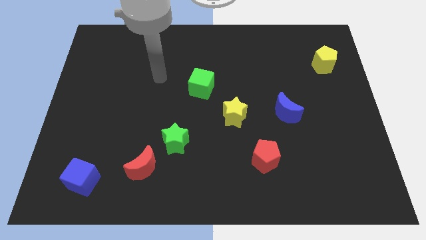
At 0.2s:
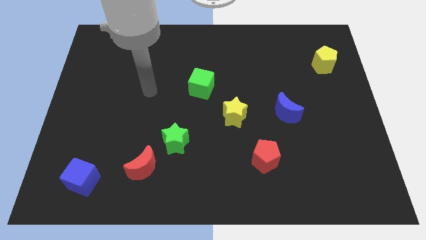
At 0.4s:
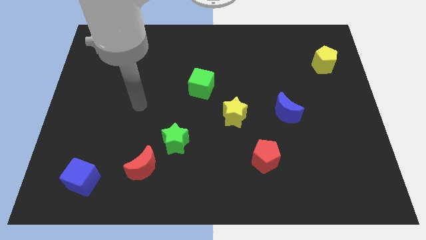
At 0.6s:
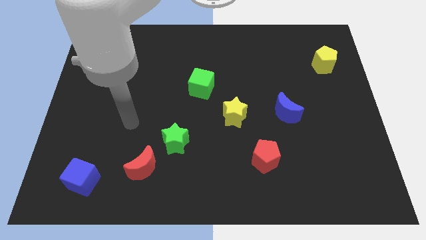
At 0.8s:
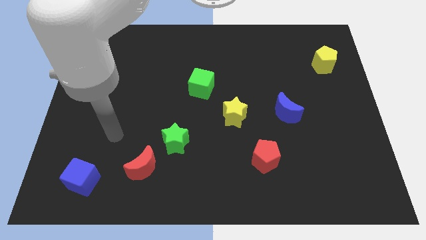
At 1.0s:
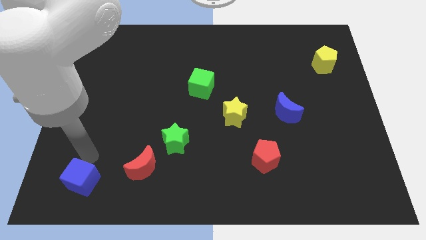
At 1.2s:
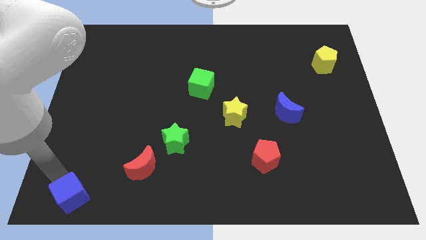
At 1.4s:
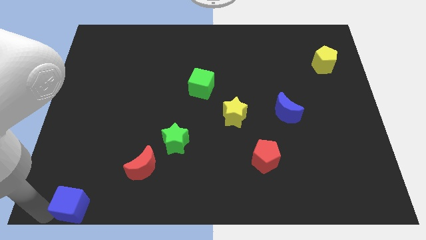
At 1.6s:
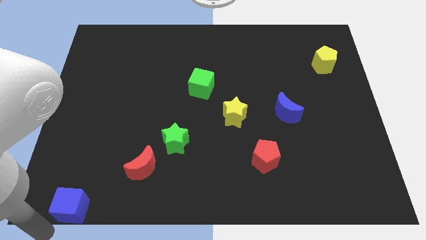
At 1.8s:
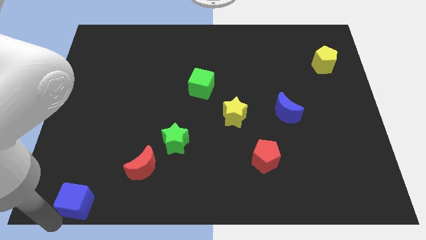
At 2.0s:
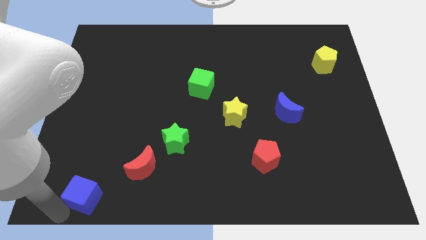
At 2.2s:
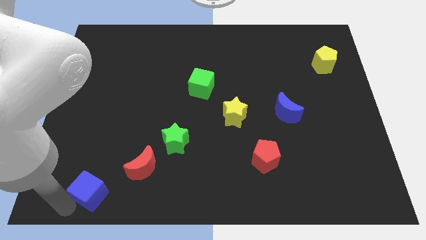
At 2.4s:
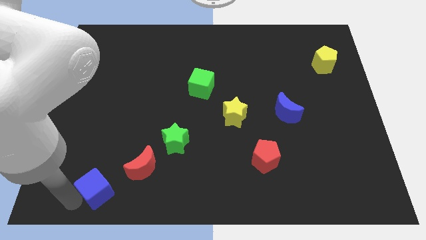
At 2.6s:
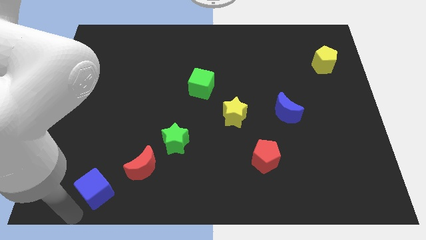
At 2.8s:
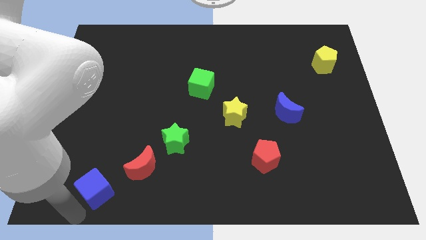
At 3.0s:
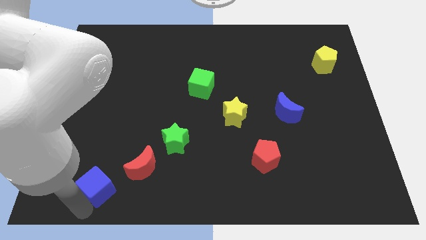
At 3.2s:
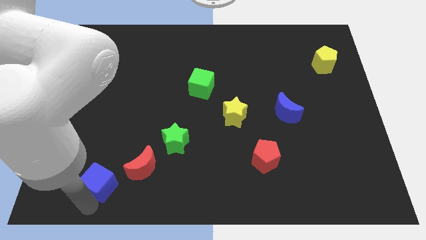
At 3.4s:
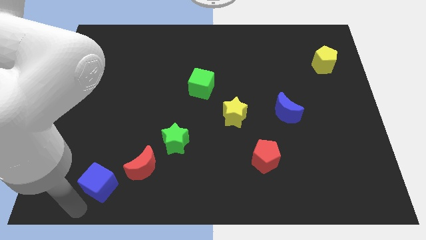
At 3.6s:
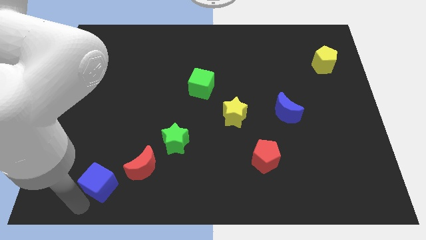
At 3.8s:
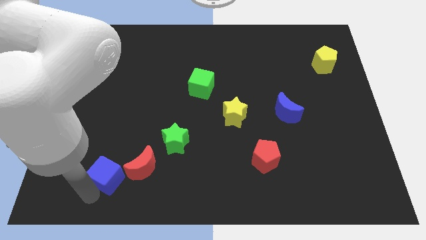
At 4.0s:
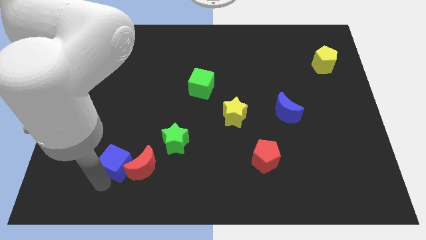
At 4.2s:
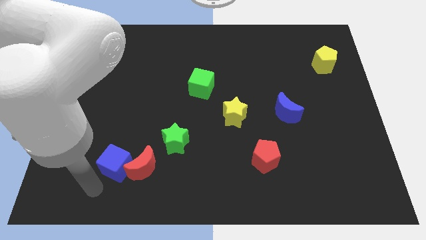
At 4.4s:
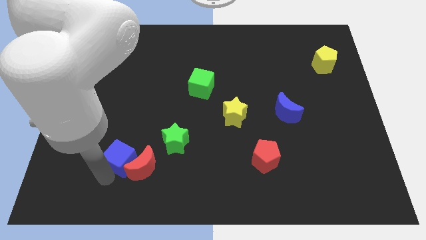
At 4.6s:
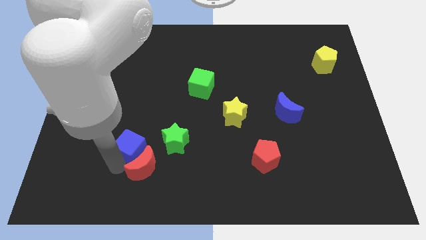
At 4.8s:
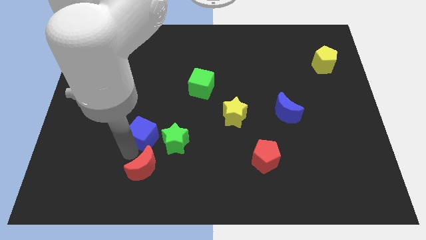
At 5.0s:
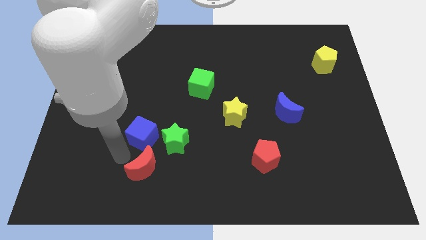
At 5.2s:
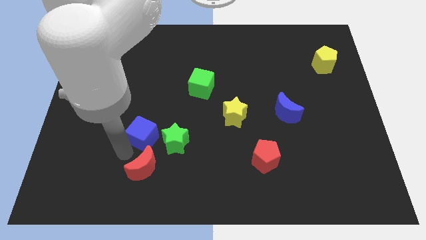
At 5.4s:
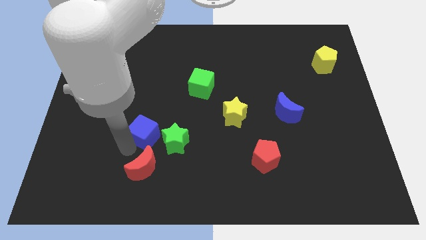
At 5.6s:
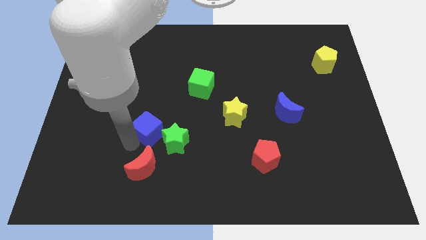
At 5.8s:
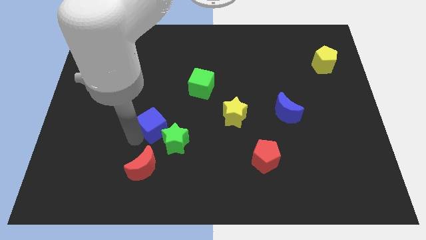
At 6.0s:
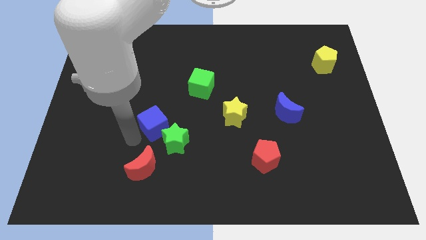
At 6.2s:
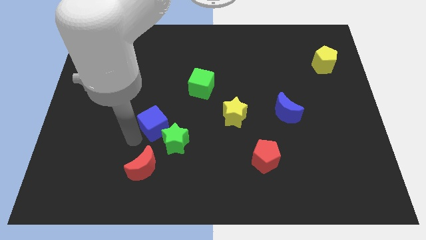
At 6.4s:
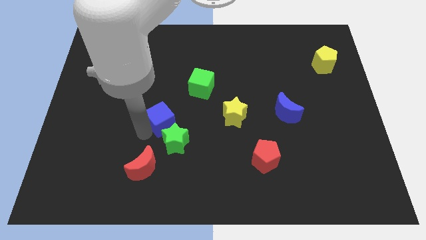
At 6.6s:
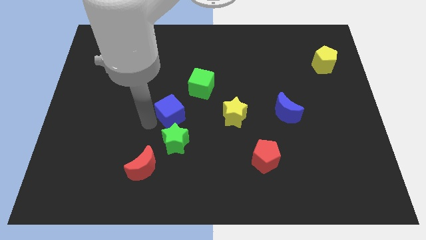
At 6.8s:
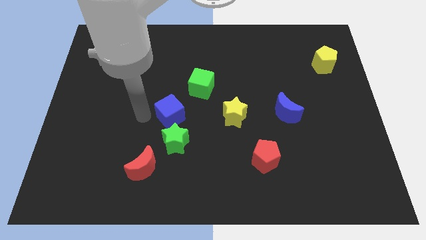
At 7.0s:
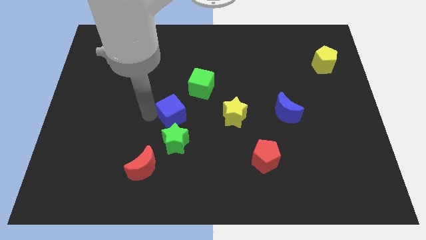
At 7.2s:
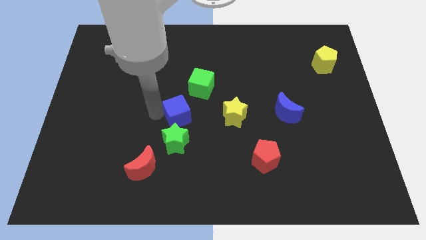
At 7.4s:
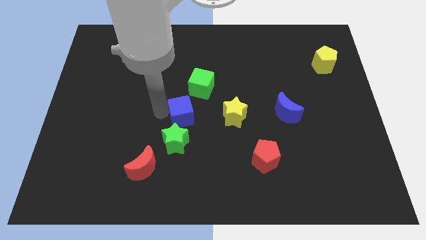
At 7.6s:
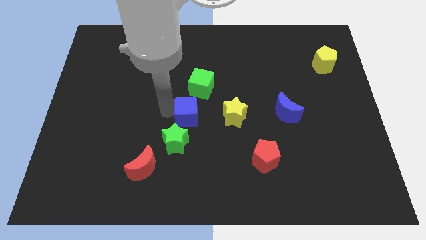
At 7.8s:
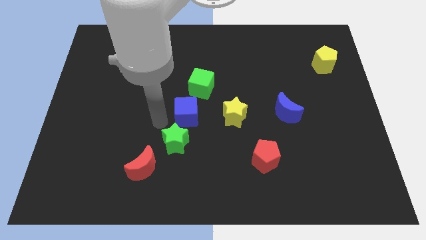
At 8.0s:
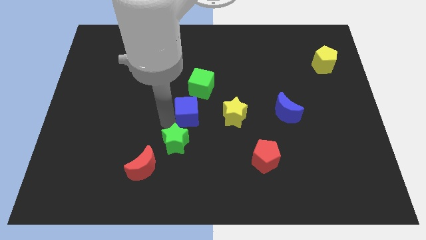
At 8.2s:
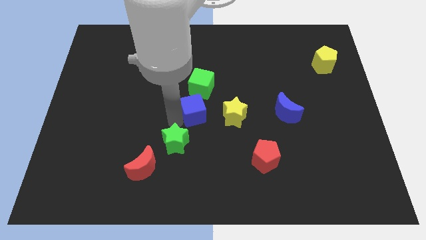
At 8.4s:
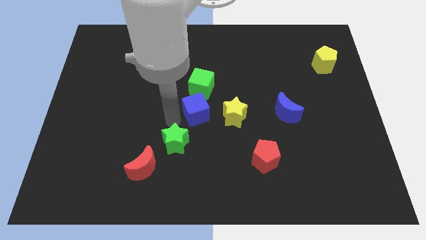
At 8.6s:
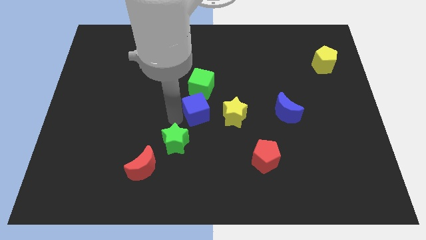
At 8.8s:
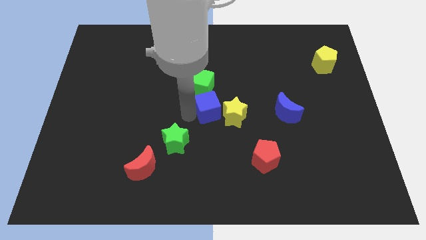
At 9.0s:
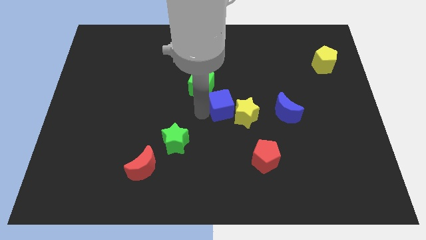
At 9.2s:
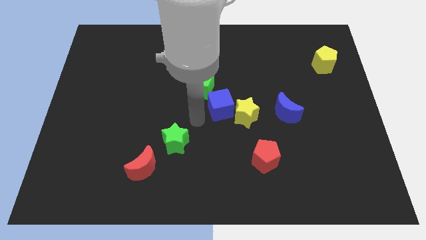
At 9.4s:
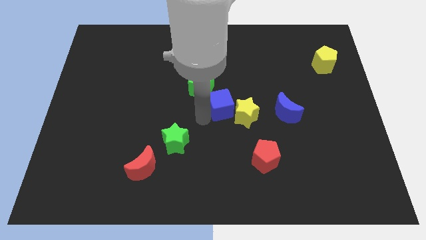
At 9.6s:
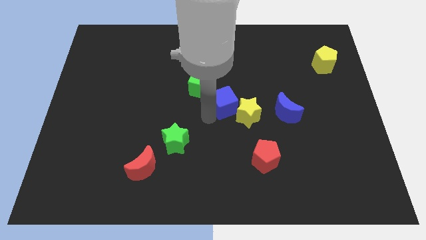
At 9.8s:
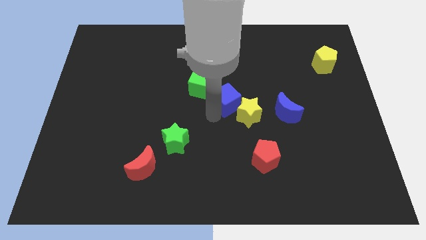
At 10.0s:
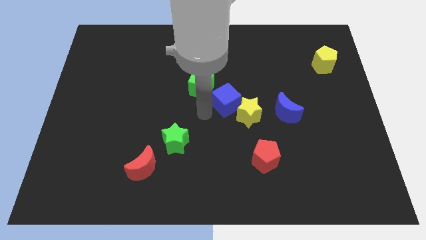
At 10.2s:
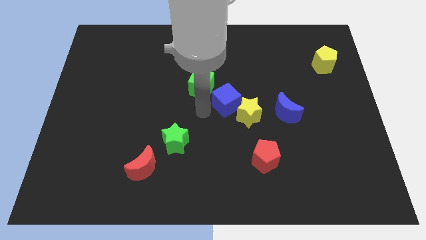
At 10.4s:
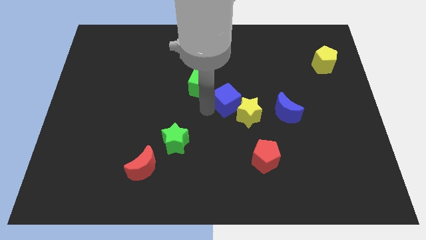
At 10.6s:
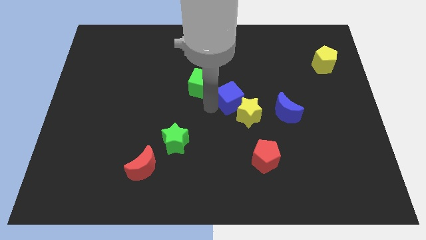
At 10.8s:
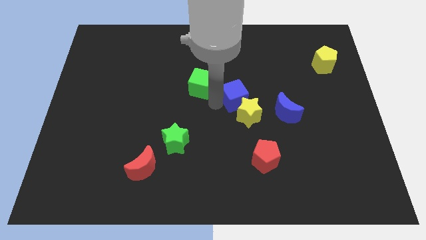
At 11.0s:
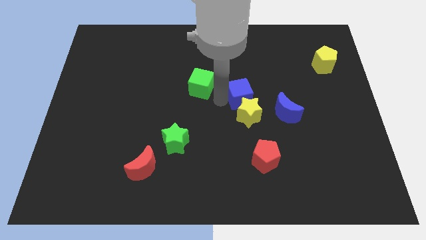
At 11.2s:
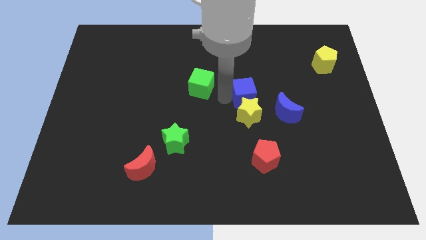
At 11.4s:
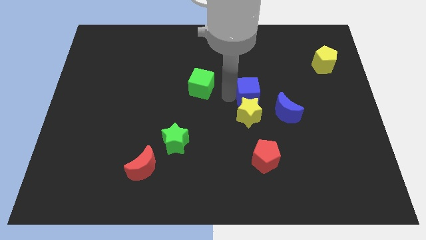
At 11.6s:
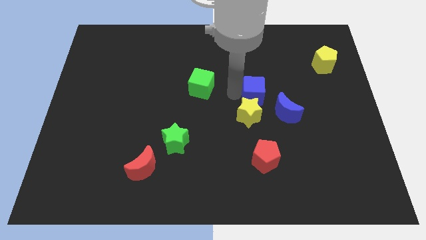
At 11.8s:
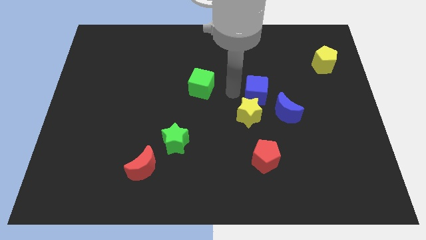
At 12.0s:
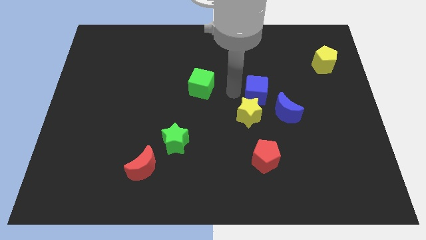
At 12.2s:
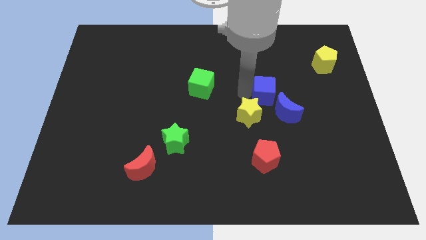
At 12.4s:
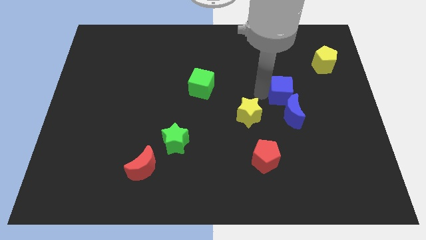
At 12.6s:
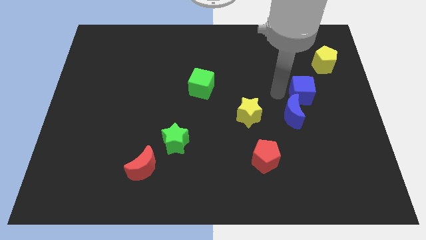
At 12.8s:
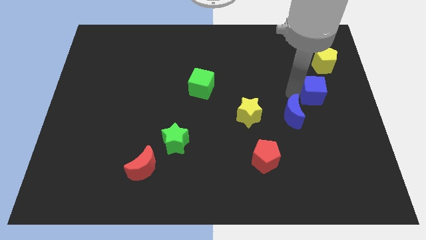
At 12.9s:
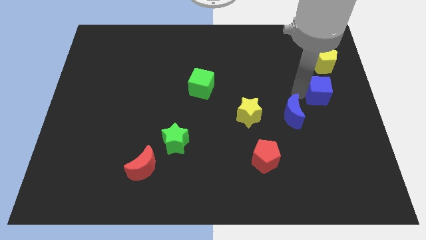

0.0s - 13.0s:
move the blue cube to the right side of the board

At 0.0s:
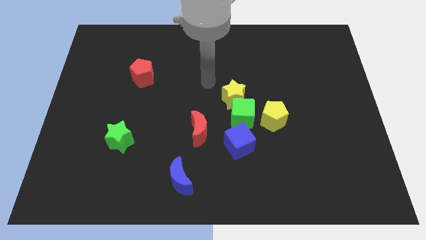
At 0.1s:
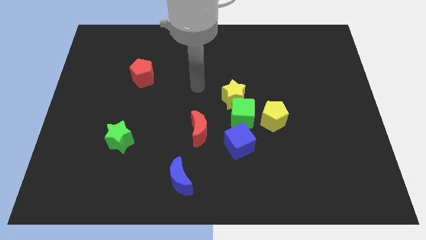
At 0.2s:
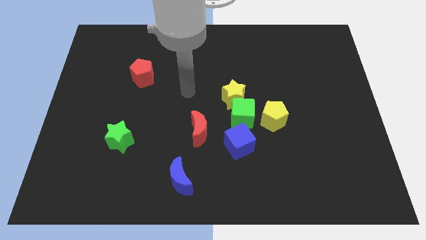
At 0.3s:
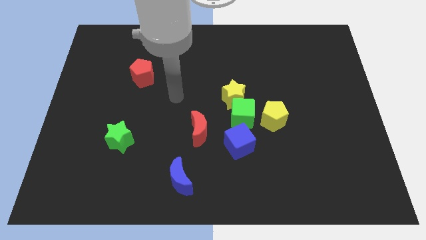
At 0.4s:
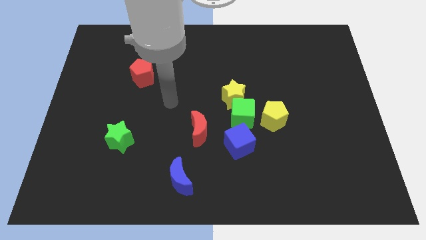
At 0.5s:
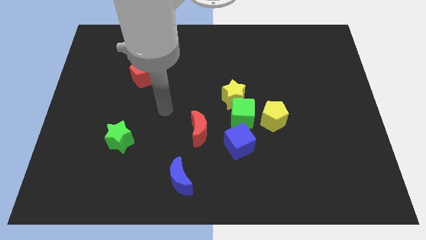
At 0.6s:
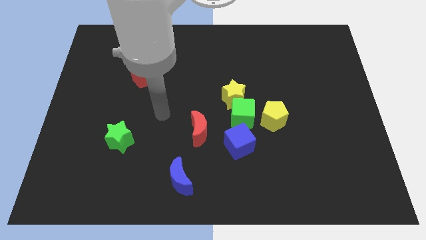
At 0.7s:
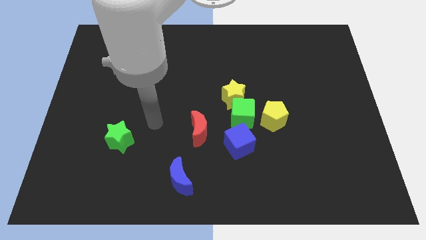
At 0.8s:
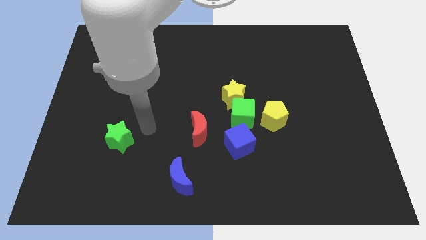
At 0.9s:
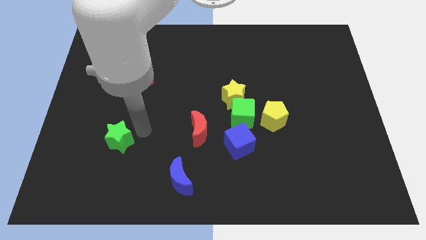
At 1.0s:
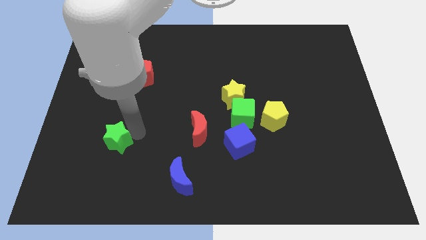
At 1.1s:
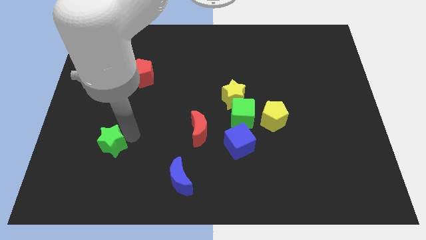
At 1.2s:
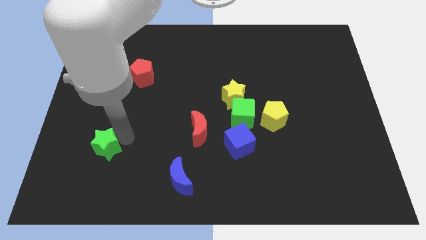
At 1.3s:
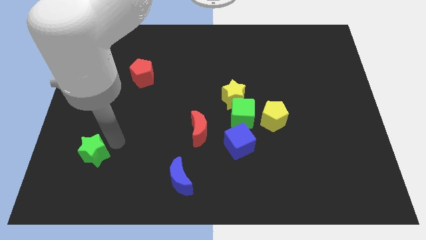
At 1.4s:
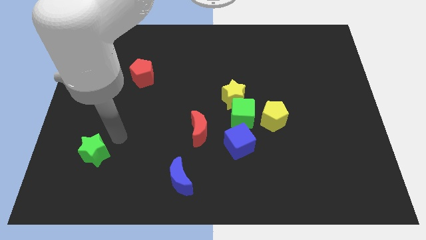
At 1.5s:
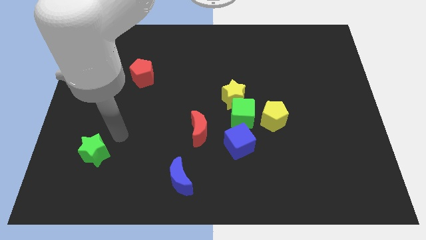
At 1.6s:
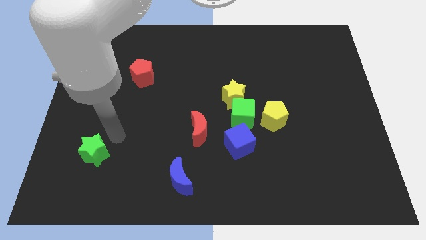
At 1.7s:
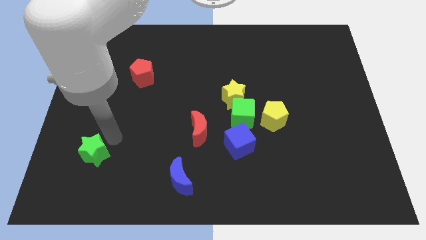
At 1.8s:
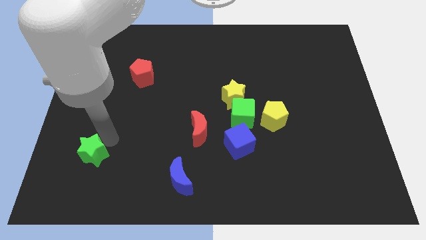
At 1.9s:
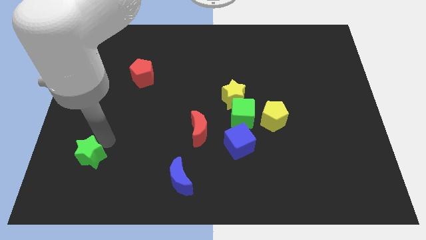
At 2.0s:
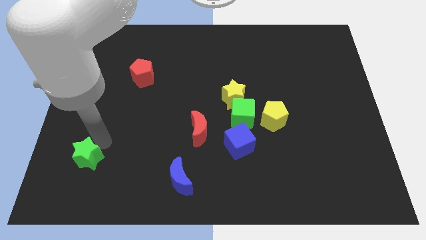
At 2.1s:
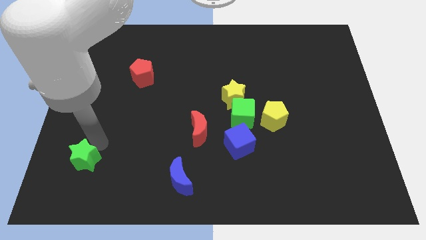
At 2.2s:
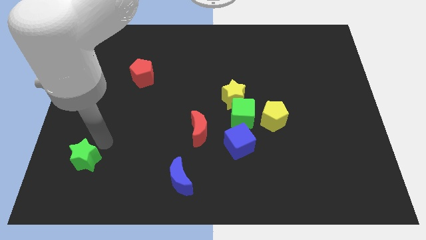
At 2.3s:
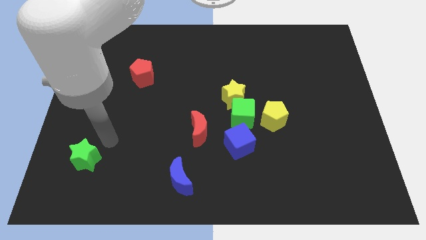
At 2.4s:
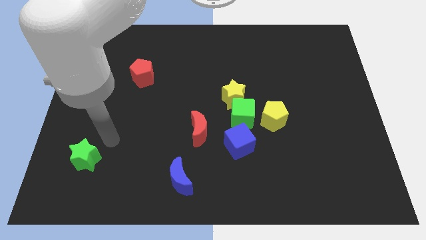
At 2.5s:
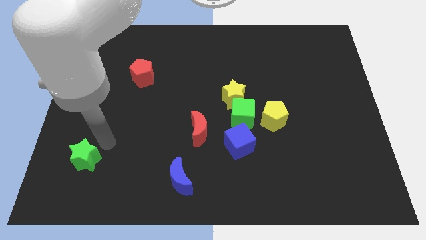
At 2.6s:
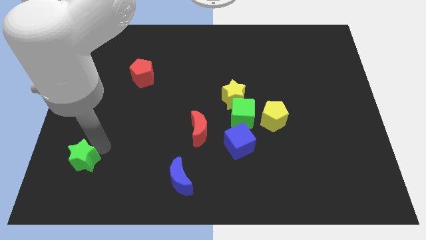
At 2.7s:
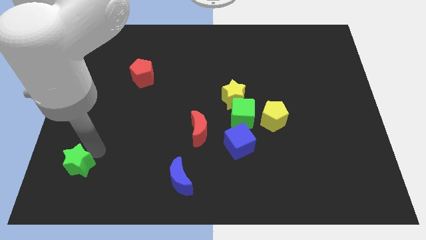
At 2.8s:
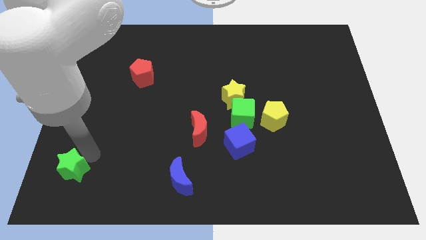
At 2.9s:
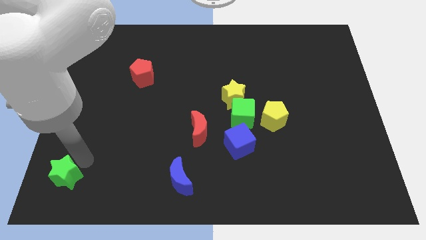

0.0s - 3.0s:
put the green star to the lower left corner
